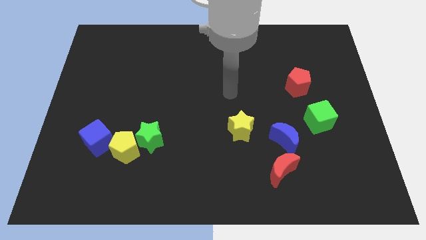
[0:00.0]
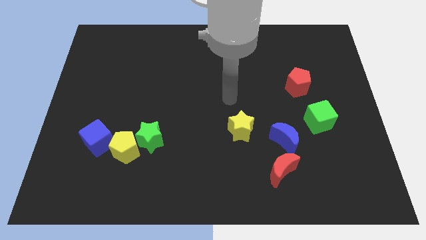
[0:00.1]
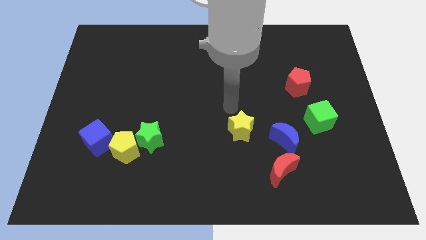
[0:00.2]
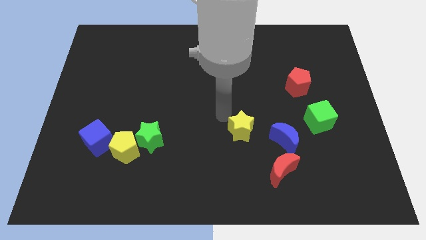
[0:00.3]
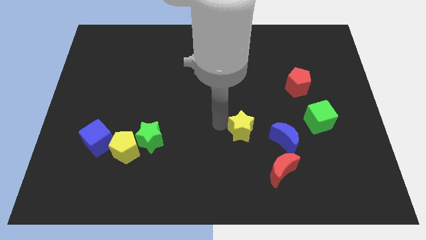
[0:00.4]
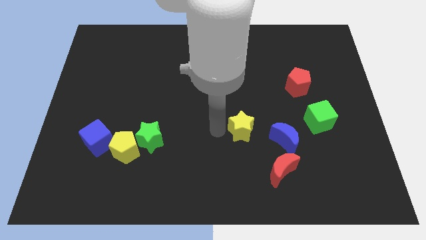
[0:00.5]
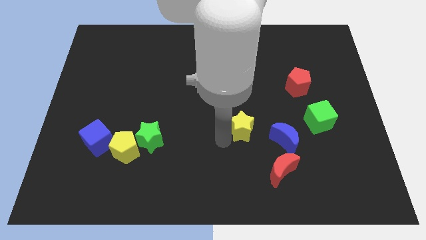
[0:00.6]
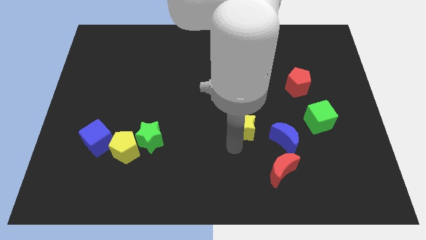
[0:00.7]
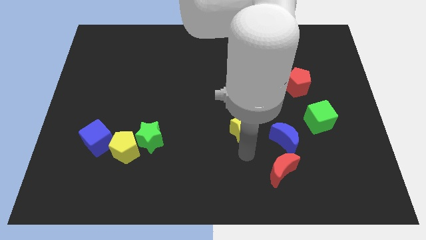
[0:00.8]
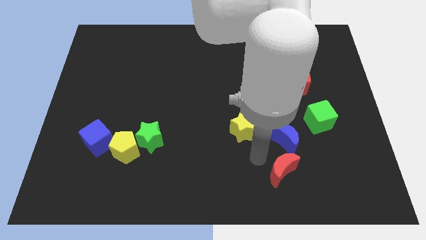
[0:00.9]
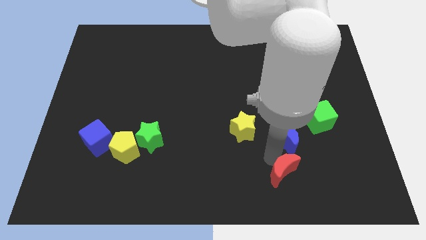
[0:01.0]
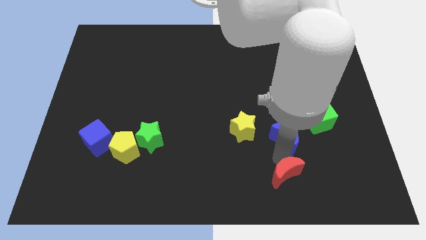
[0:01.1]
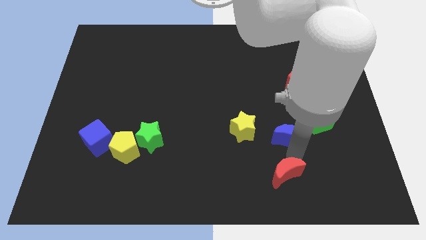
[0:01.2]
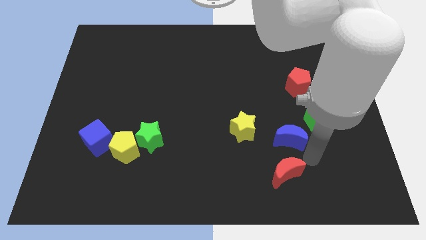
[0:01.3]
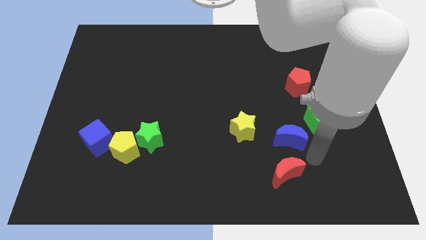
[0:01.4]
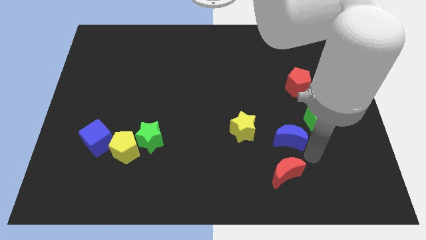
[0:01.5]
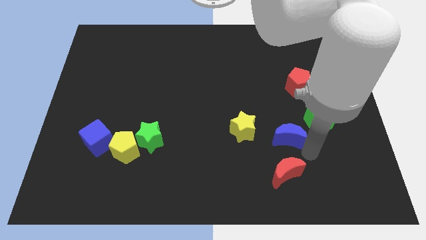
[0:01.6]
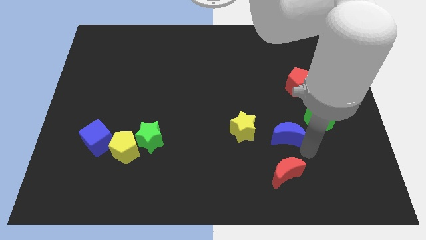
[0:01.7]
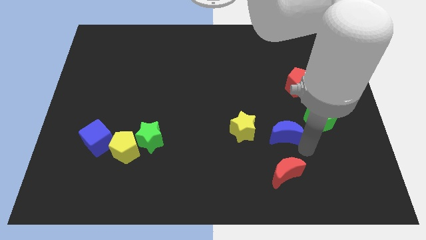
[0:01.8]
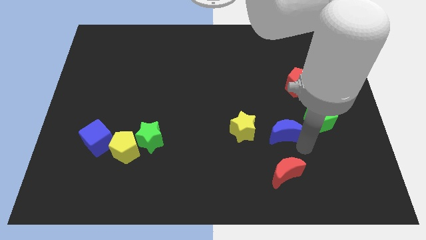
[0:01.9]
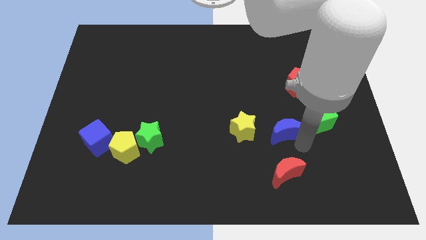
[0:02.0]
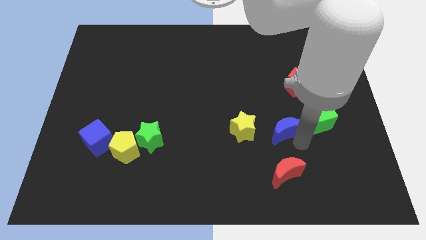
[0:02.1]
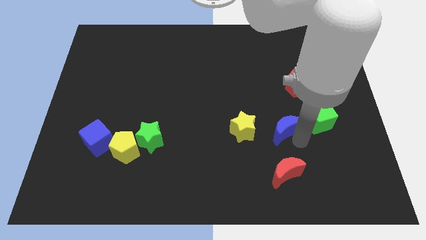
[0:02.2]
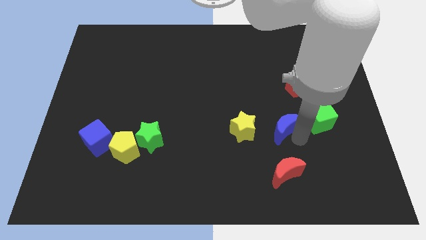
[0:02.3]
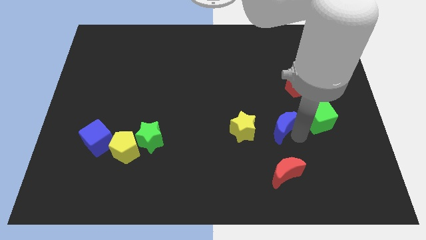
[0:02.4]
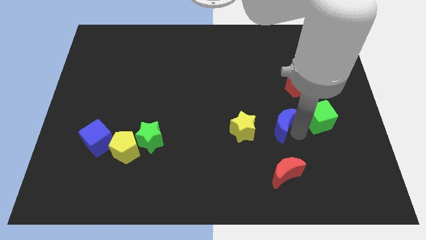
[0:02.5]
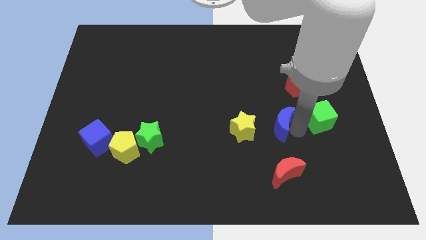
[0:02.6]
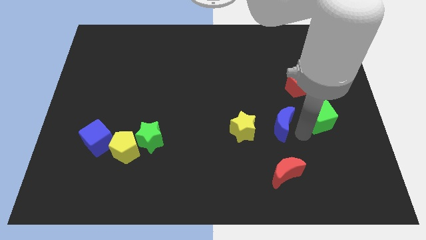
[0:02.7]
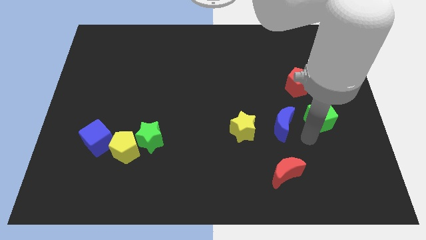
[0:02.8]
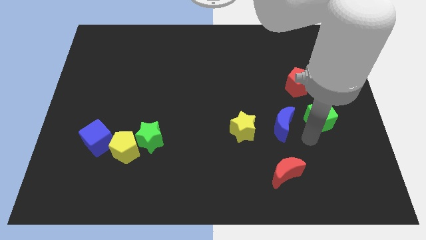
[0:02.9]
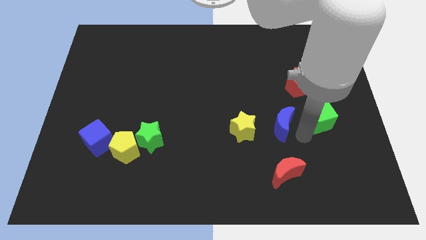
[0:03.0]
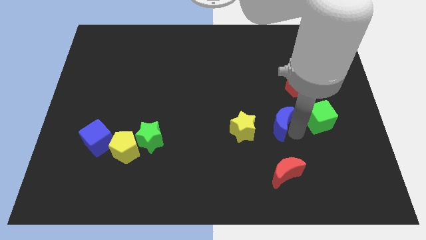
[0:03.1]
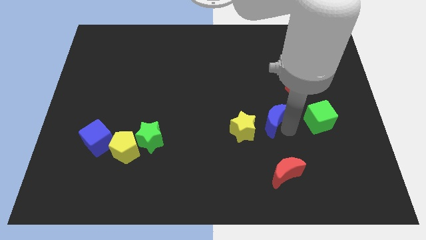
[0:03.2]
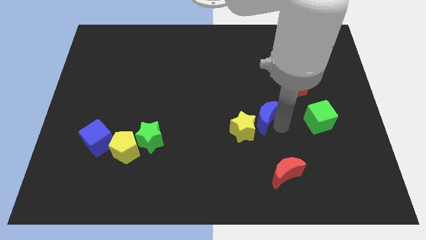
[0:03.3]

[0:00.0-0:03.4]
slide the blue moon upwards and to the left a little bit

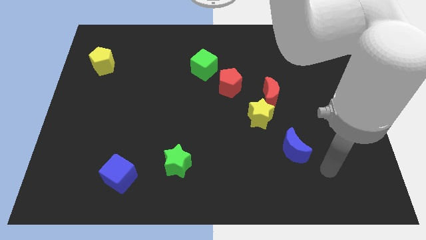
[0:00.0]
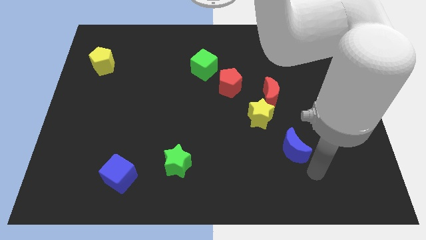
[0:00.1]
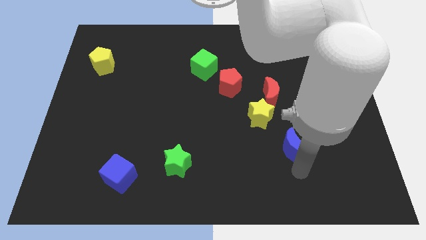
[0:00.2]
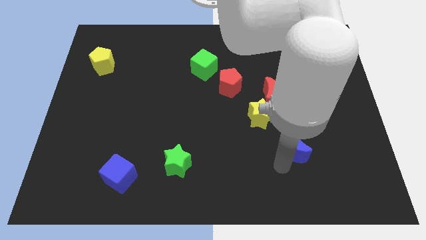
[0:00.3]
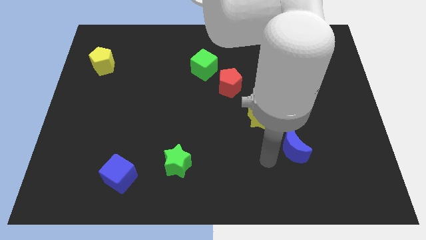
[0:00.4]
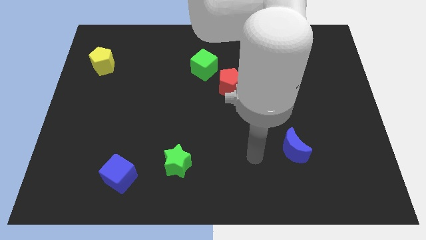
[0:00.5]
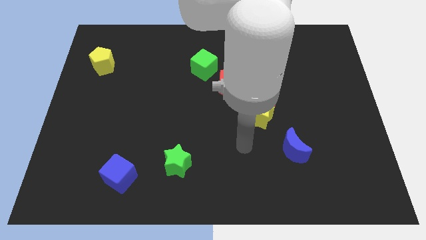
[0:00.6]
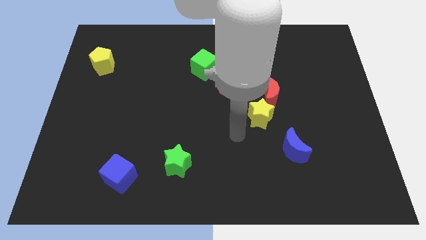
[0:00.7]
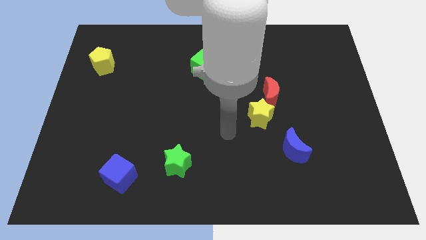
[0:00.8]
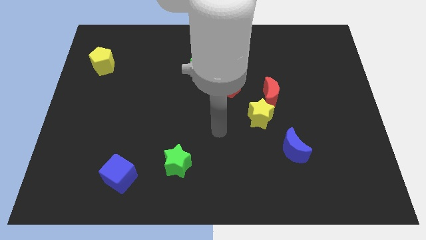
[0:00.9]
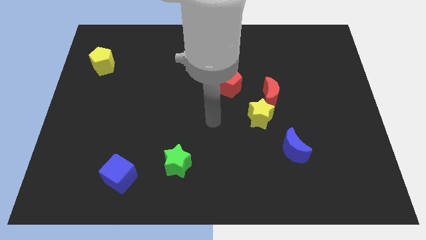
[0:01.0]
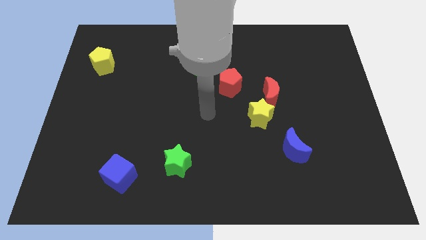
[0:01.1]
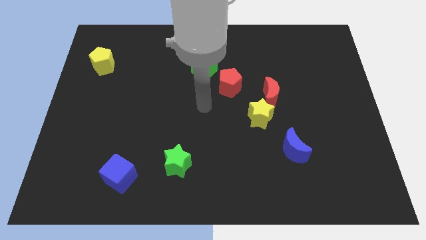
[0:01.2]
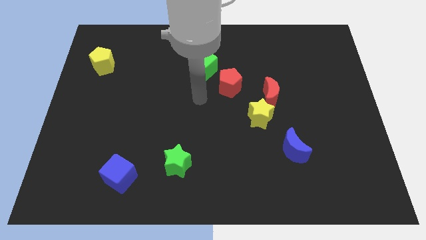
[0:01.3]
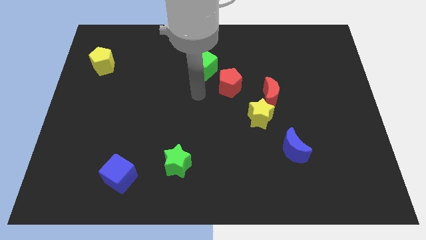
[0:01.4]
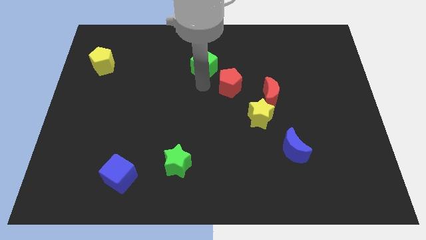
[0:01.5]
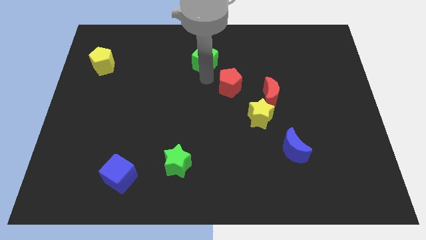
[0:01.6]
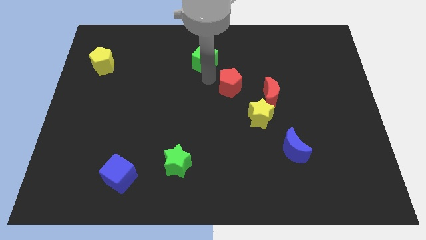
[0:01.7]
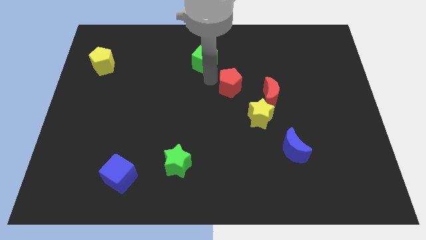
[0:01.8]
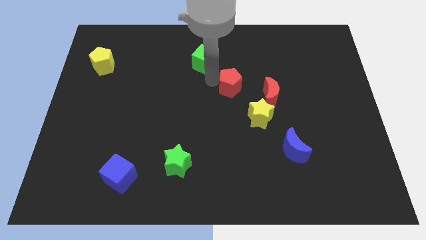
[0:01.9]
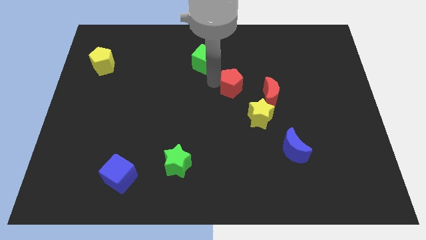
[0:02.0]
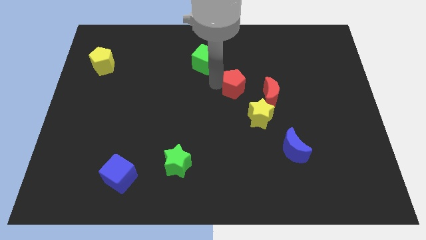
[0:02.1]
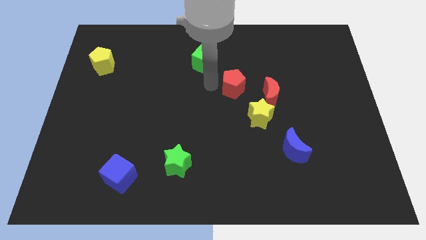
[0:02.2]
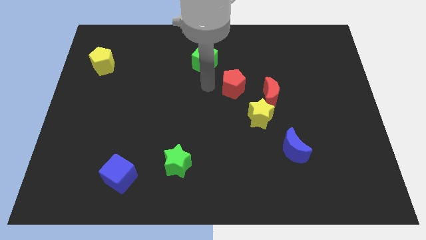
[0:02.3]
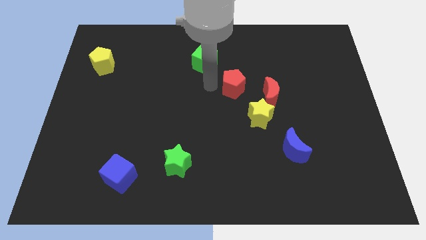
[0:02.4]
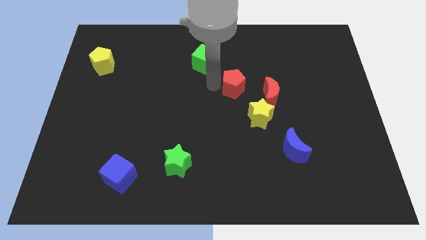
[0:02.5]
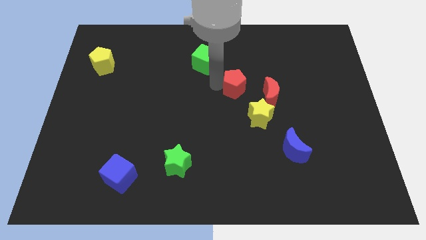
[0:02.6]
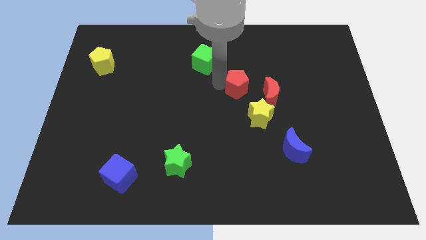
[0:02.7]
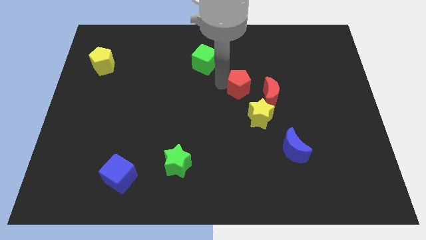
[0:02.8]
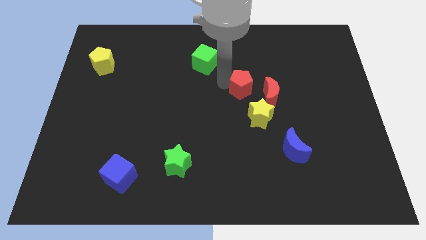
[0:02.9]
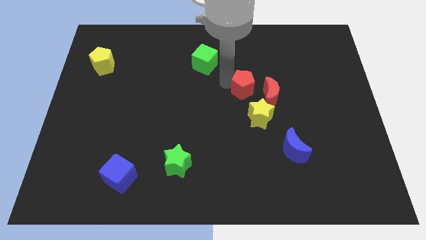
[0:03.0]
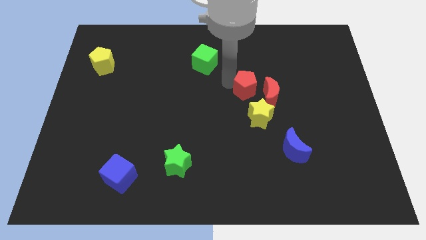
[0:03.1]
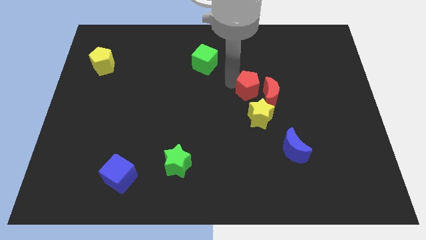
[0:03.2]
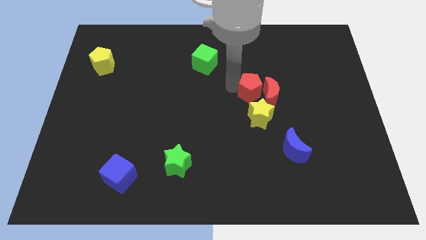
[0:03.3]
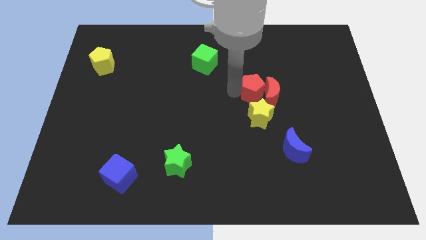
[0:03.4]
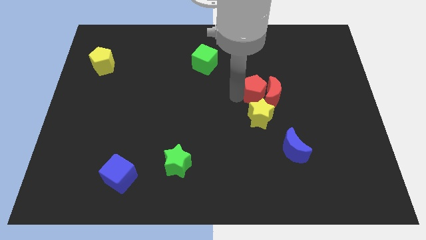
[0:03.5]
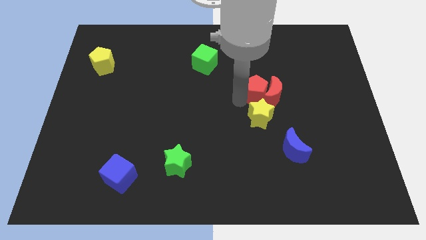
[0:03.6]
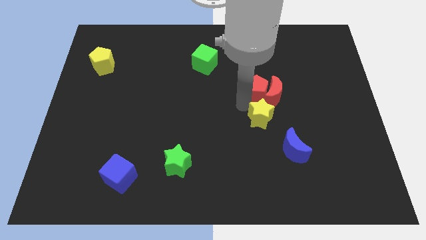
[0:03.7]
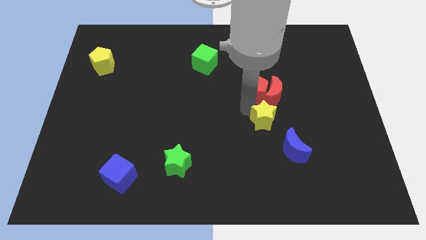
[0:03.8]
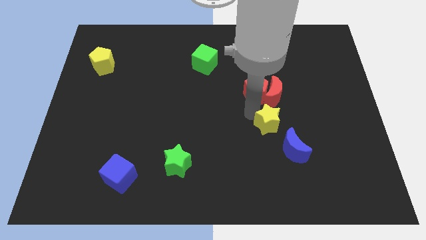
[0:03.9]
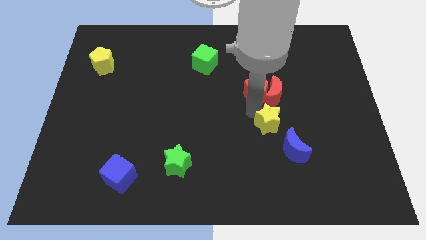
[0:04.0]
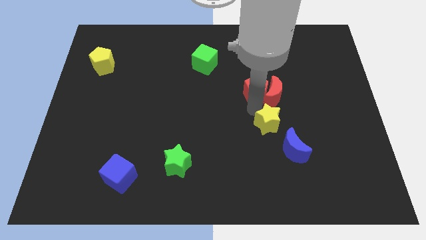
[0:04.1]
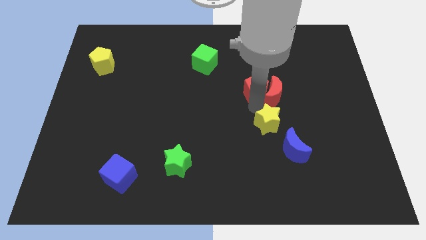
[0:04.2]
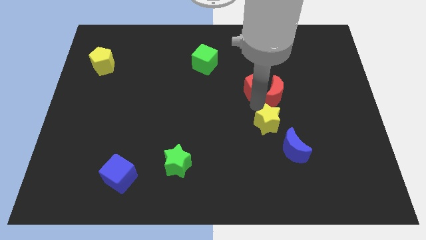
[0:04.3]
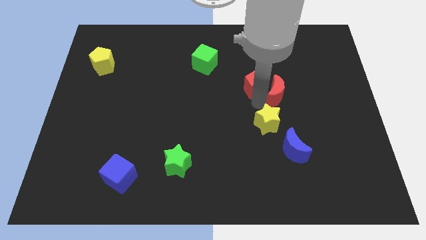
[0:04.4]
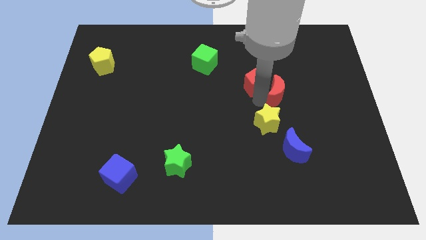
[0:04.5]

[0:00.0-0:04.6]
slide the red pentagon to the right a bit

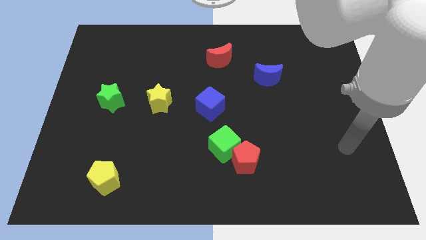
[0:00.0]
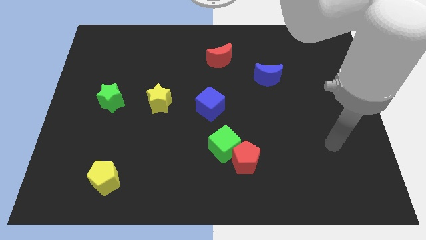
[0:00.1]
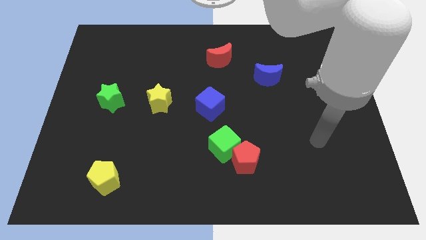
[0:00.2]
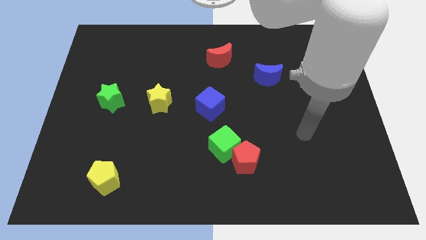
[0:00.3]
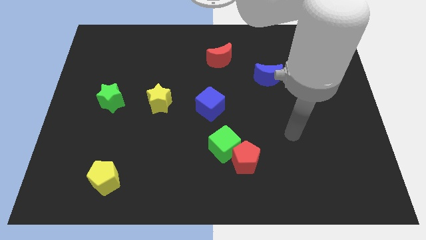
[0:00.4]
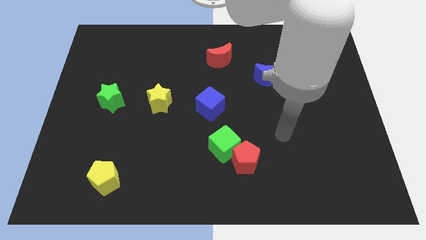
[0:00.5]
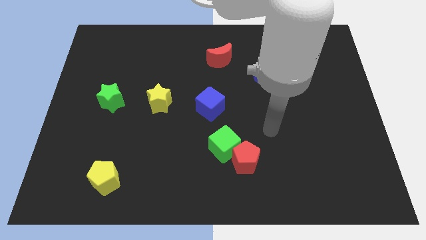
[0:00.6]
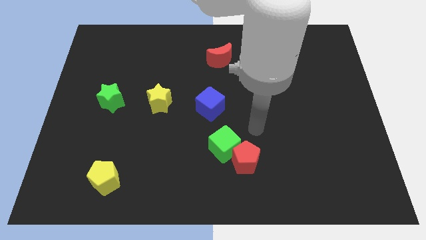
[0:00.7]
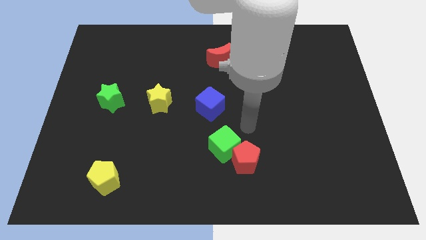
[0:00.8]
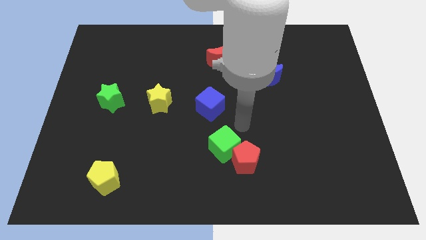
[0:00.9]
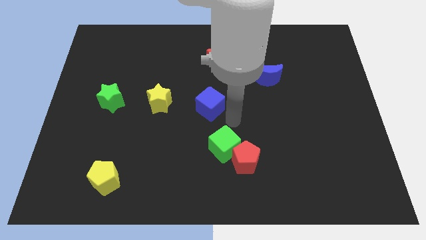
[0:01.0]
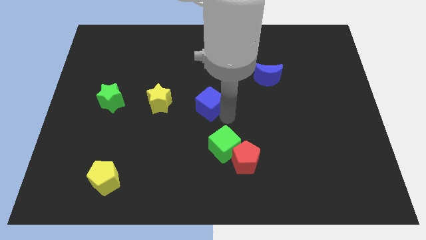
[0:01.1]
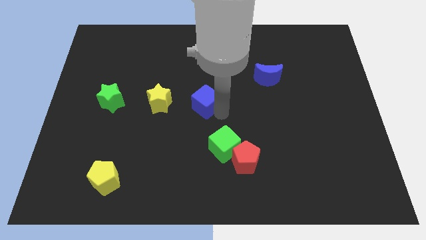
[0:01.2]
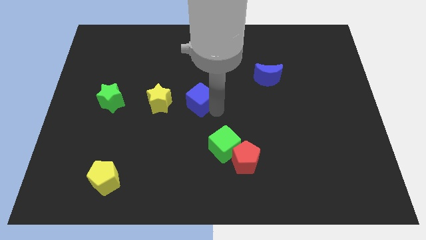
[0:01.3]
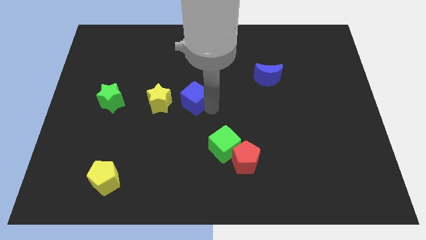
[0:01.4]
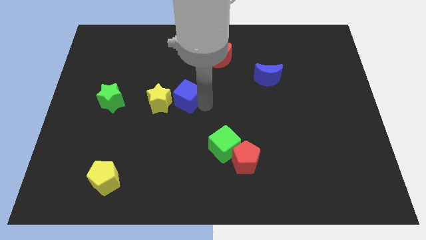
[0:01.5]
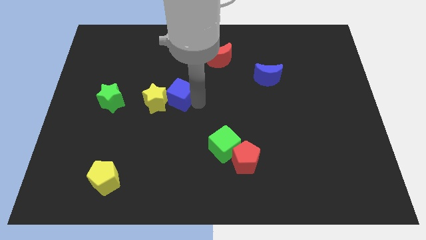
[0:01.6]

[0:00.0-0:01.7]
slide the blue cube somewhat up and to the left diagonally
